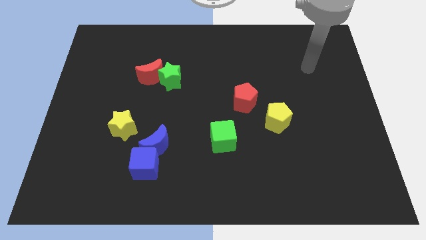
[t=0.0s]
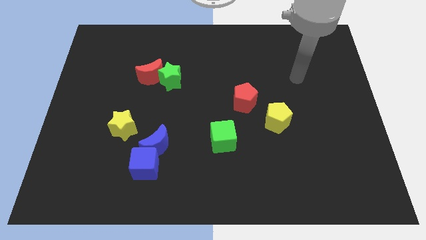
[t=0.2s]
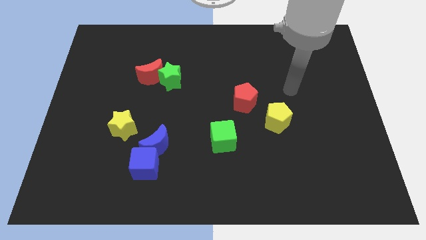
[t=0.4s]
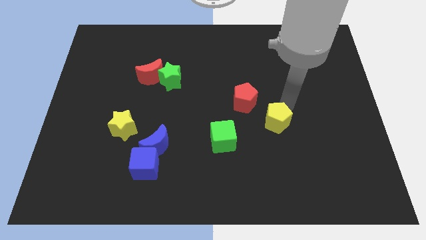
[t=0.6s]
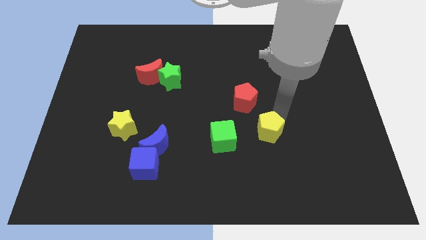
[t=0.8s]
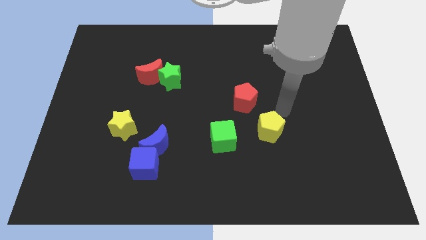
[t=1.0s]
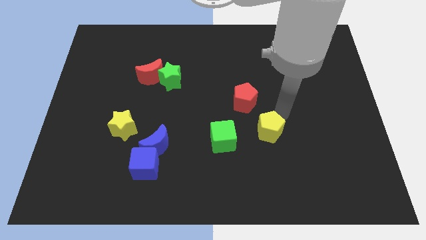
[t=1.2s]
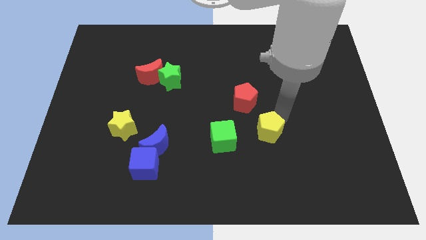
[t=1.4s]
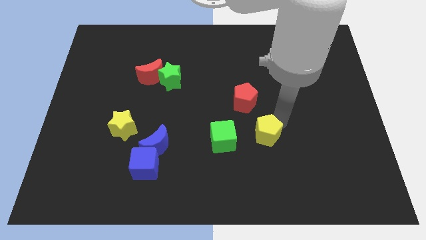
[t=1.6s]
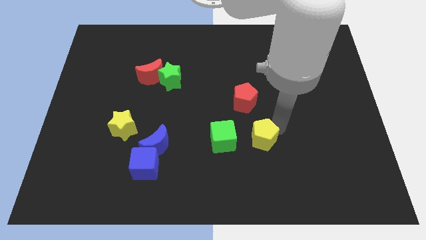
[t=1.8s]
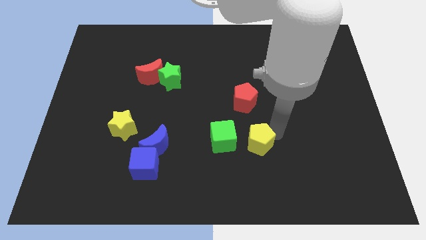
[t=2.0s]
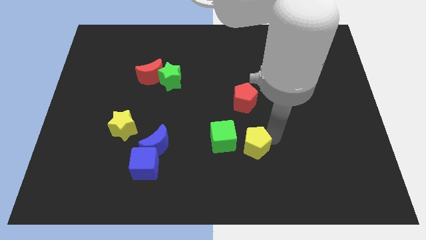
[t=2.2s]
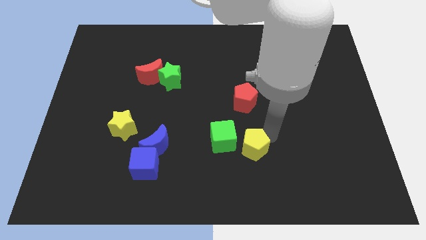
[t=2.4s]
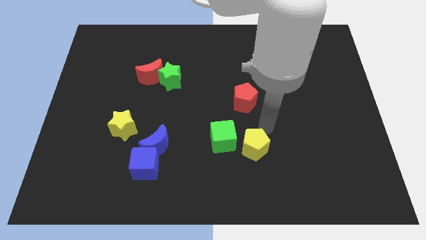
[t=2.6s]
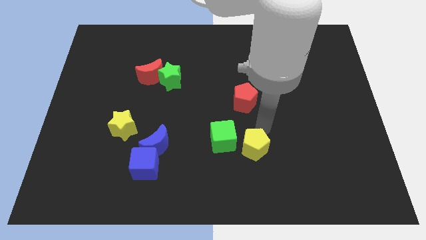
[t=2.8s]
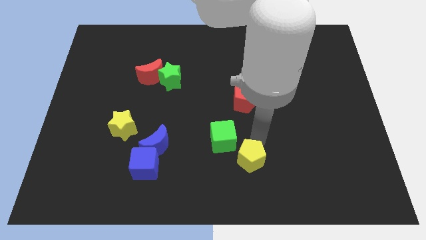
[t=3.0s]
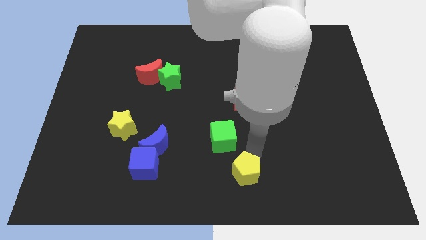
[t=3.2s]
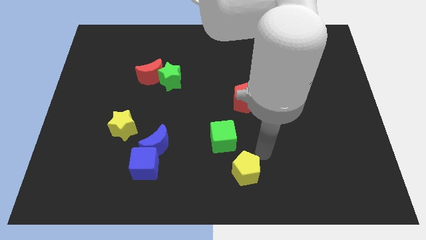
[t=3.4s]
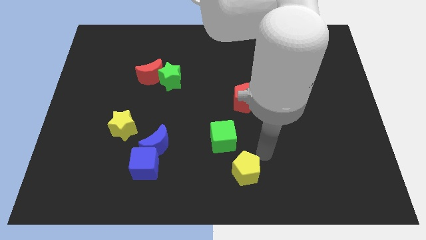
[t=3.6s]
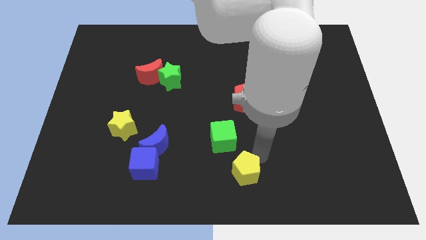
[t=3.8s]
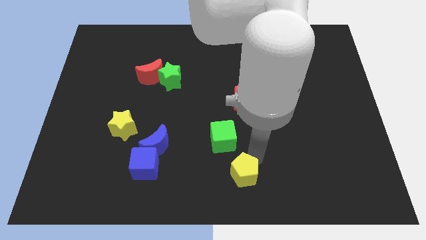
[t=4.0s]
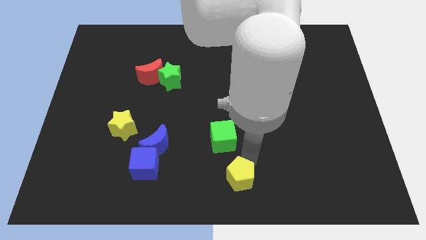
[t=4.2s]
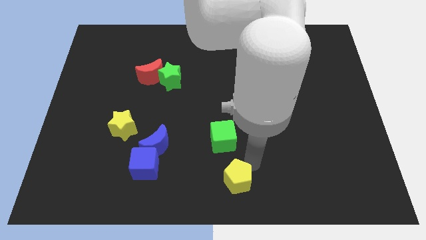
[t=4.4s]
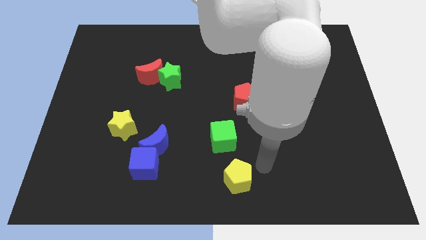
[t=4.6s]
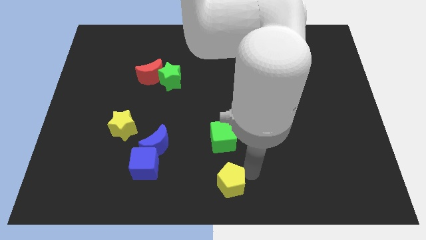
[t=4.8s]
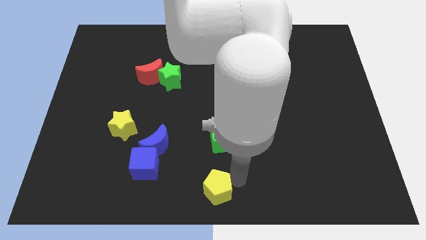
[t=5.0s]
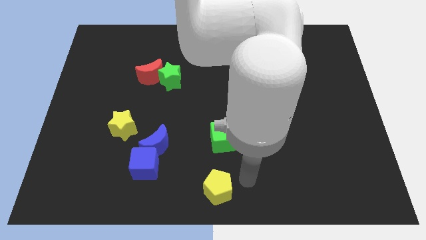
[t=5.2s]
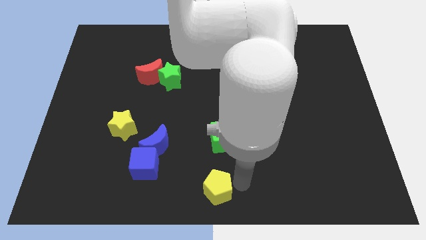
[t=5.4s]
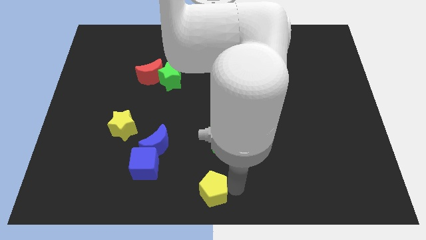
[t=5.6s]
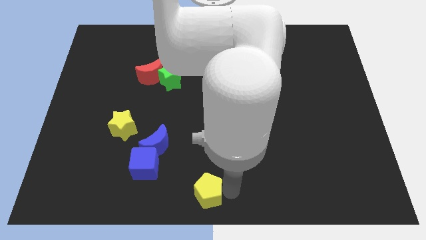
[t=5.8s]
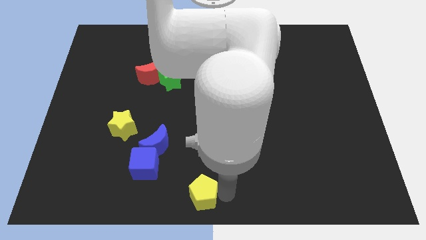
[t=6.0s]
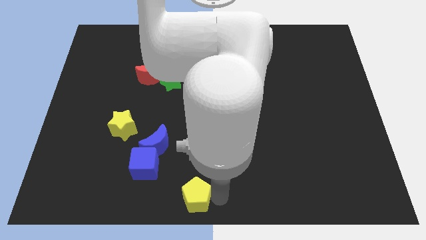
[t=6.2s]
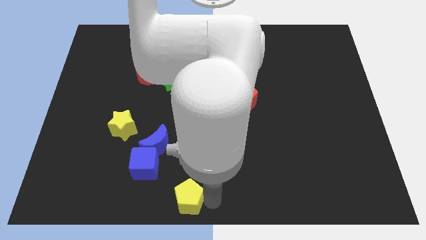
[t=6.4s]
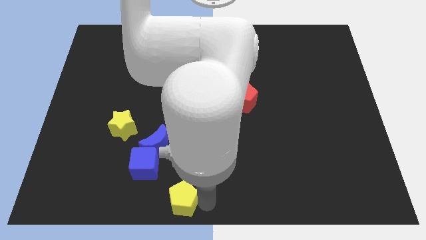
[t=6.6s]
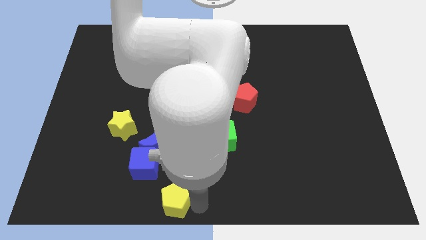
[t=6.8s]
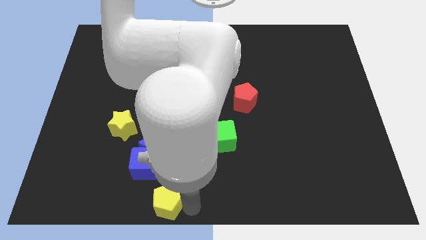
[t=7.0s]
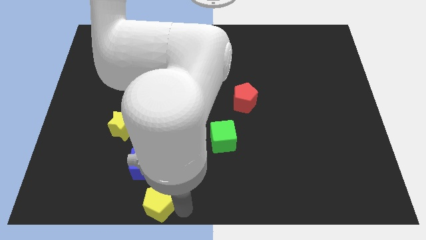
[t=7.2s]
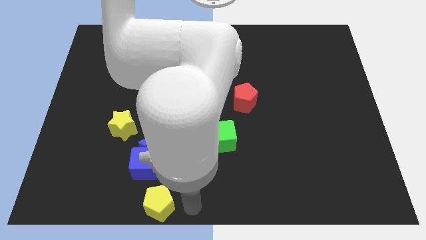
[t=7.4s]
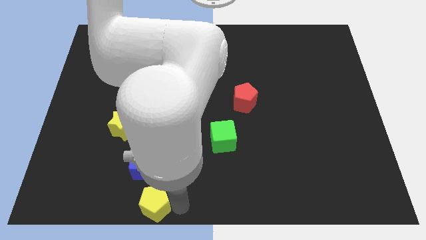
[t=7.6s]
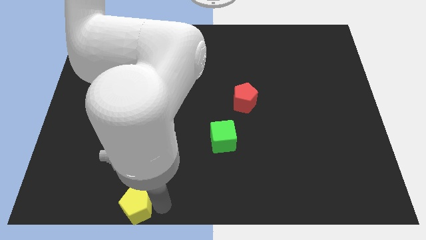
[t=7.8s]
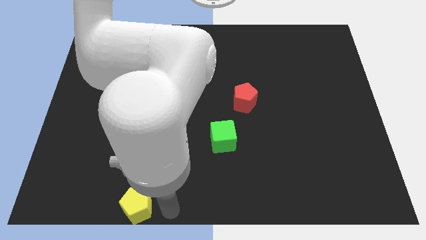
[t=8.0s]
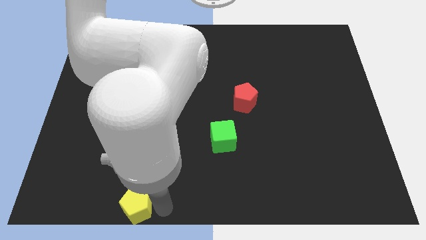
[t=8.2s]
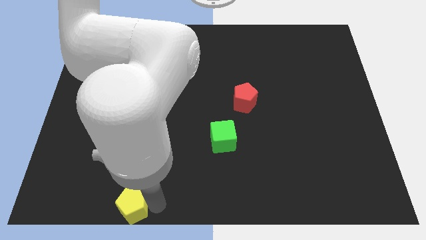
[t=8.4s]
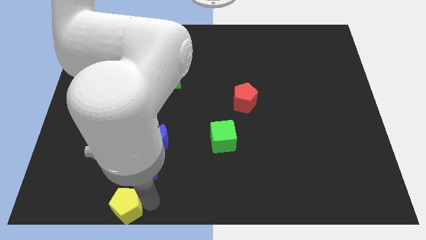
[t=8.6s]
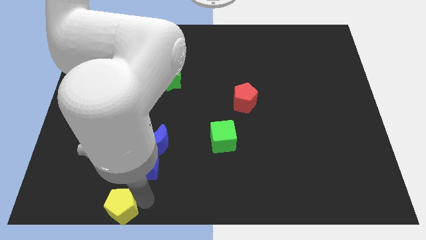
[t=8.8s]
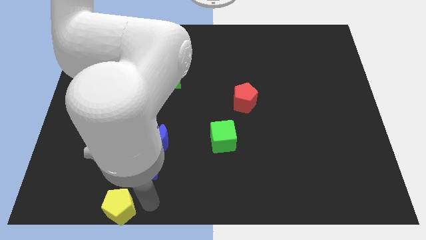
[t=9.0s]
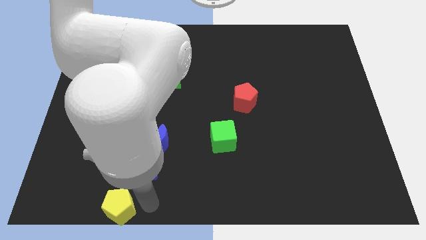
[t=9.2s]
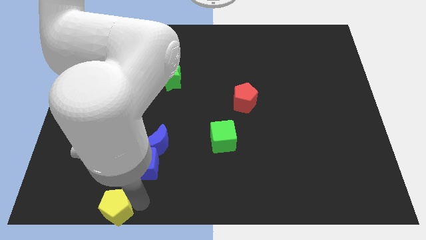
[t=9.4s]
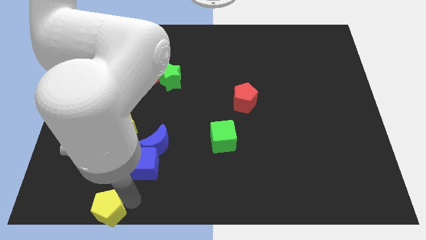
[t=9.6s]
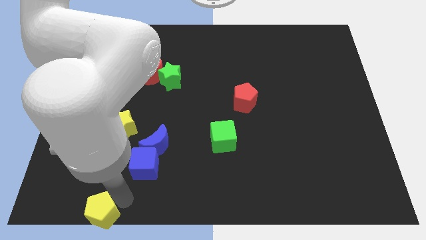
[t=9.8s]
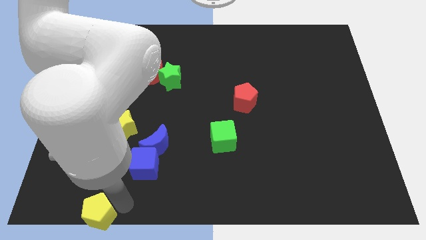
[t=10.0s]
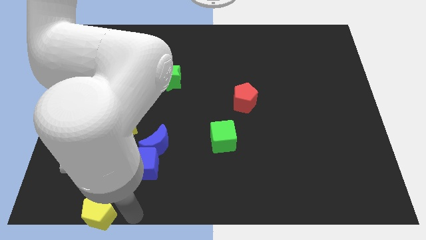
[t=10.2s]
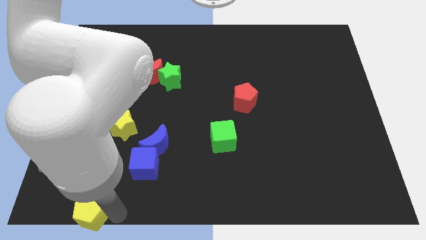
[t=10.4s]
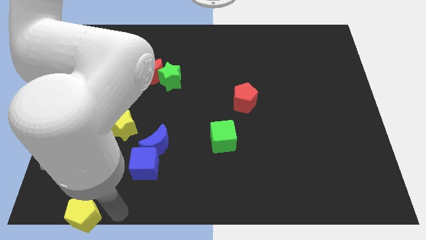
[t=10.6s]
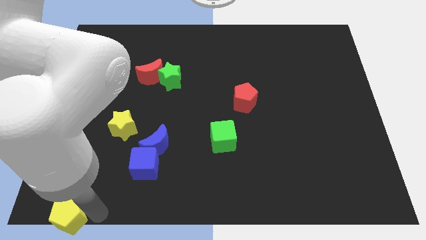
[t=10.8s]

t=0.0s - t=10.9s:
slide the yellow pentagon to the lower left corner
